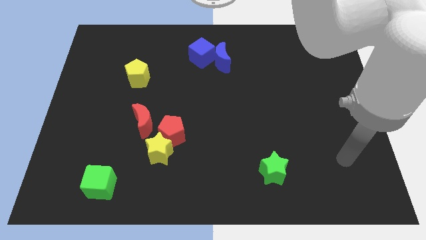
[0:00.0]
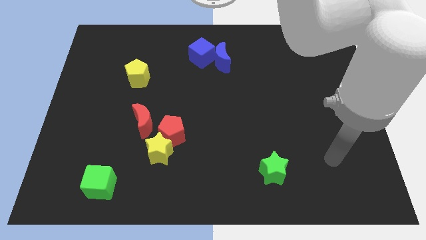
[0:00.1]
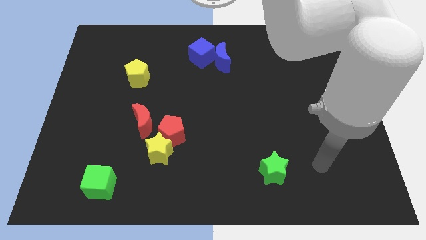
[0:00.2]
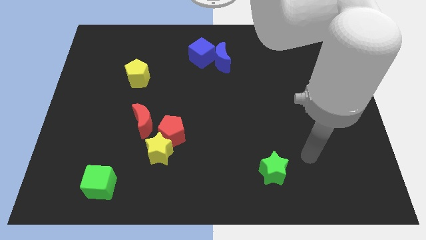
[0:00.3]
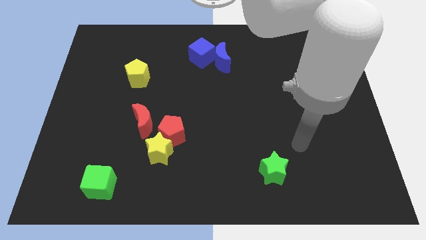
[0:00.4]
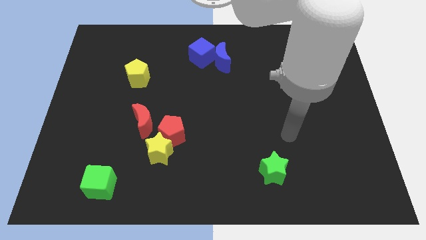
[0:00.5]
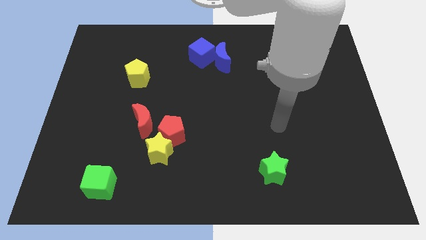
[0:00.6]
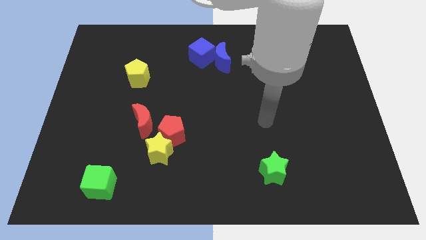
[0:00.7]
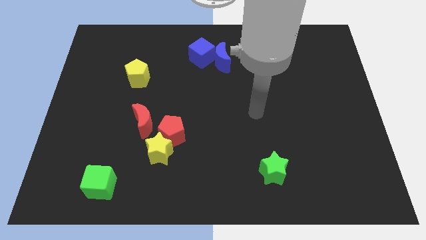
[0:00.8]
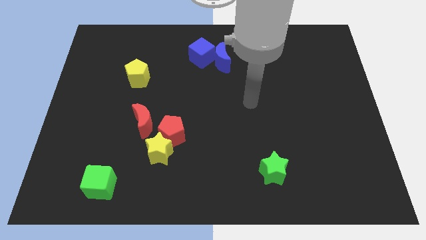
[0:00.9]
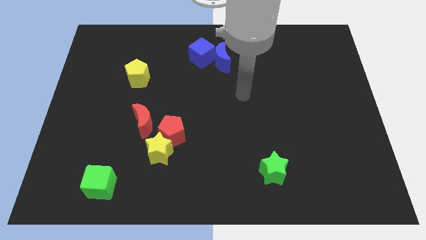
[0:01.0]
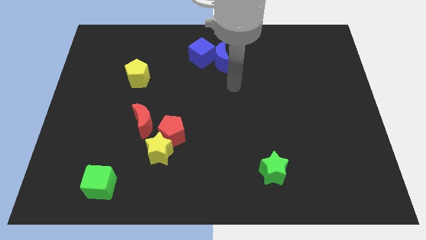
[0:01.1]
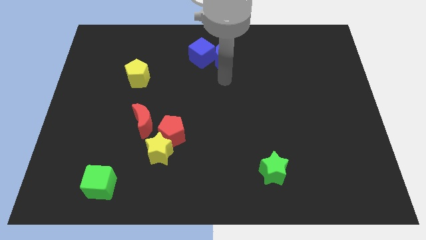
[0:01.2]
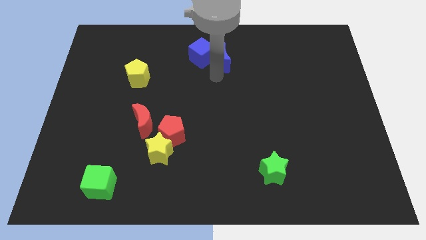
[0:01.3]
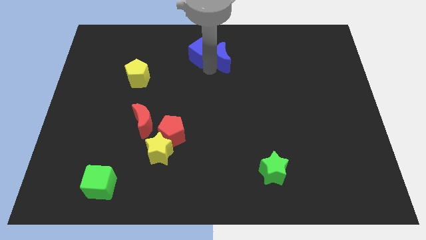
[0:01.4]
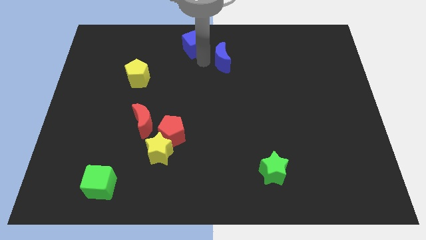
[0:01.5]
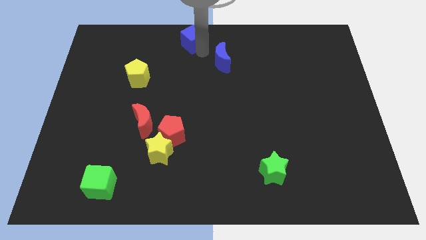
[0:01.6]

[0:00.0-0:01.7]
move the blue moon away from the blue cube

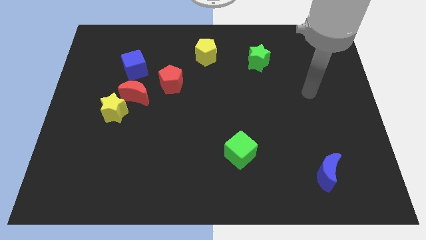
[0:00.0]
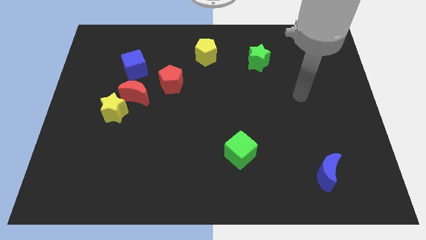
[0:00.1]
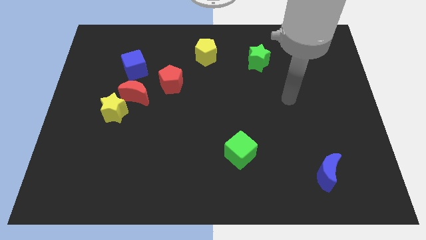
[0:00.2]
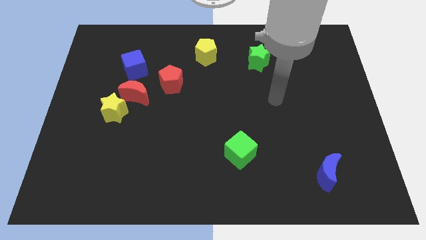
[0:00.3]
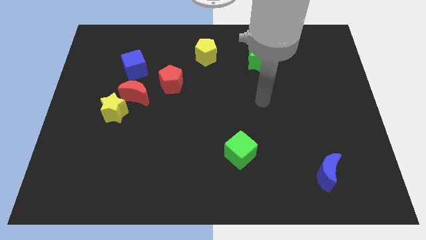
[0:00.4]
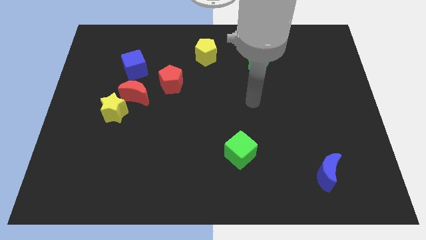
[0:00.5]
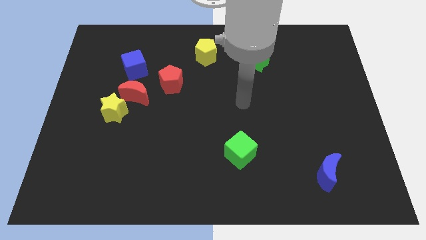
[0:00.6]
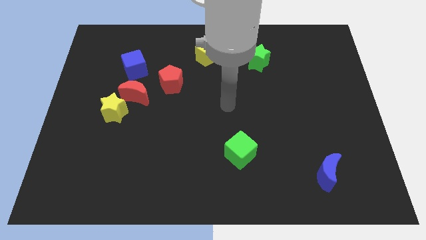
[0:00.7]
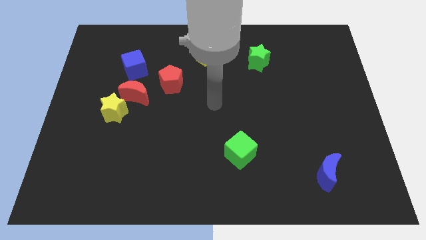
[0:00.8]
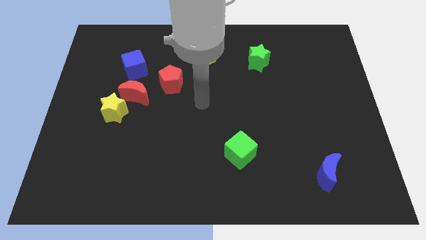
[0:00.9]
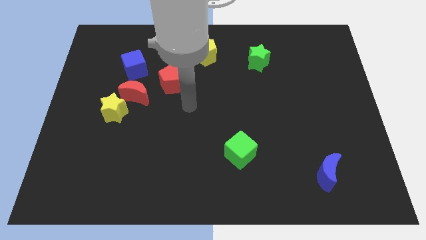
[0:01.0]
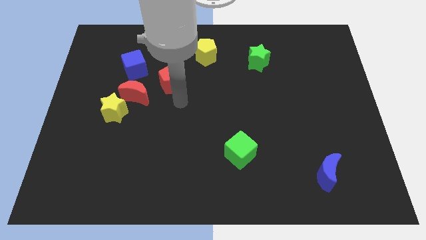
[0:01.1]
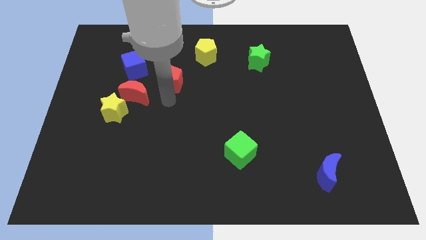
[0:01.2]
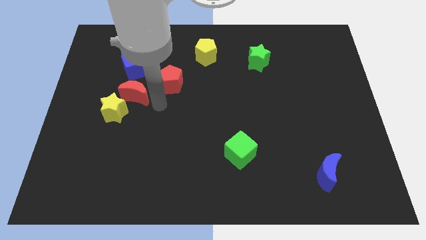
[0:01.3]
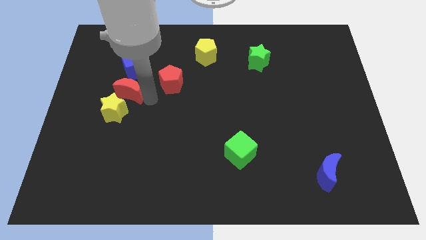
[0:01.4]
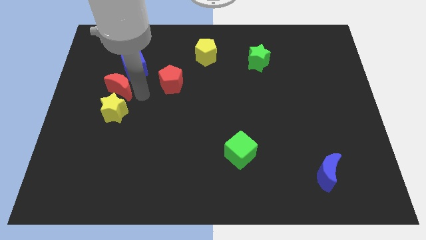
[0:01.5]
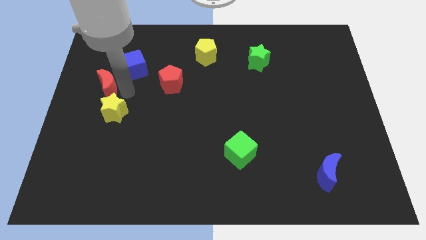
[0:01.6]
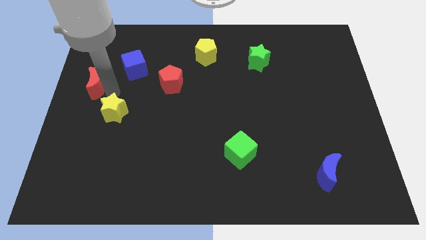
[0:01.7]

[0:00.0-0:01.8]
separate the yellow star from the red moon

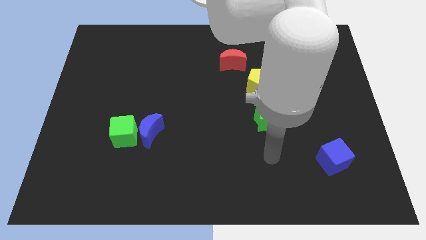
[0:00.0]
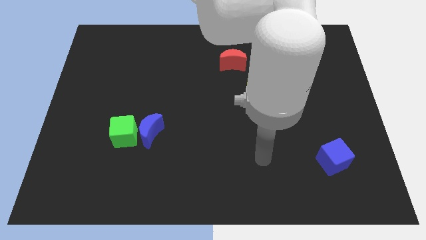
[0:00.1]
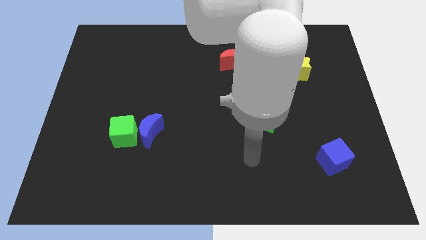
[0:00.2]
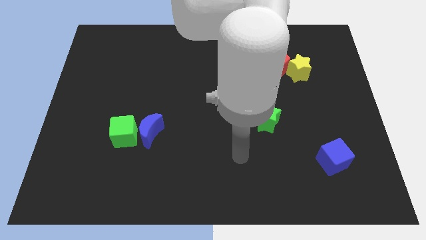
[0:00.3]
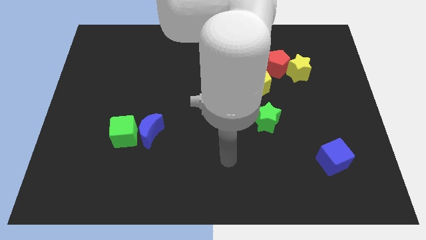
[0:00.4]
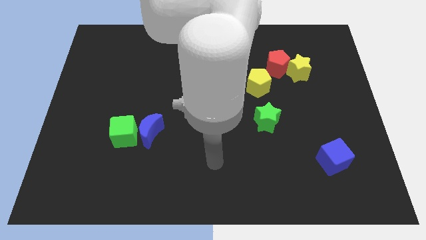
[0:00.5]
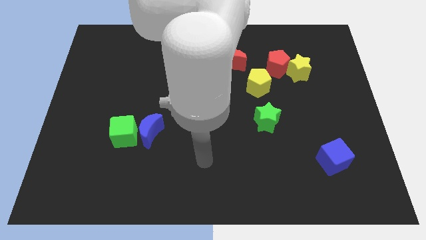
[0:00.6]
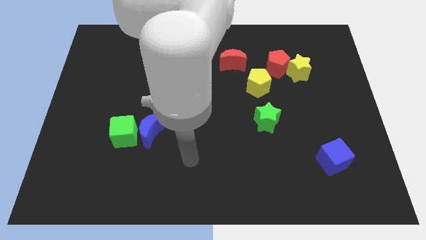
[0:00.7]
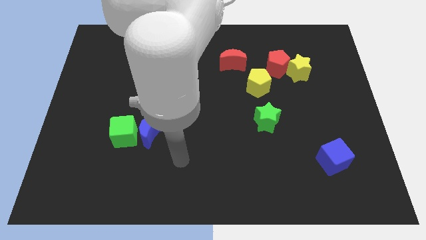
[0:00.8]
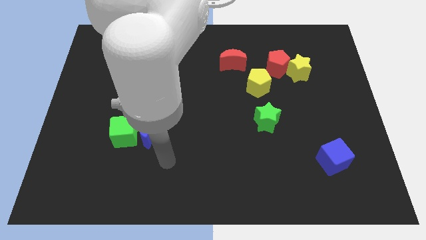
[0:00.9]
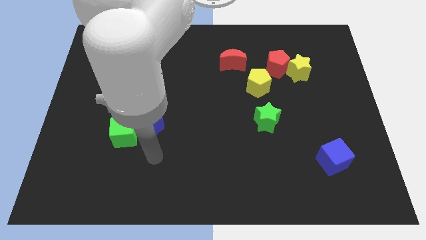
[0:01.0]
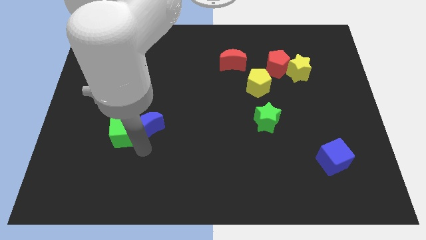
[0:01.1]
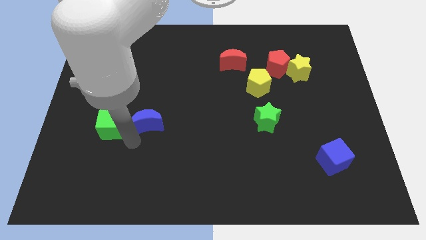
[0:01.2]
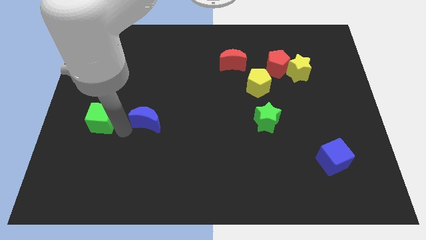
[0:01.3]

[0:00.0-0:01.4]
separate the blue moon from the green cube

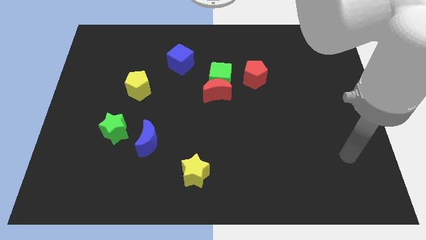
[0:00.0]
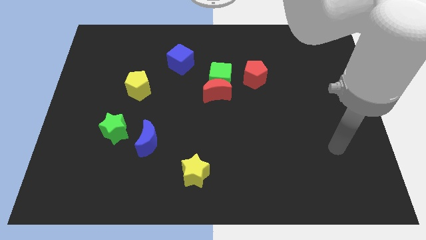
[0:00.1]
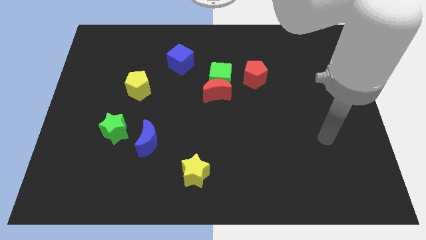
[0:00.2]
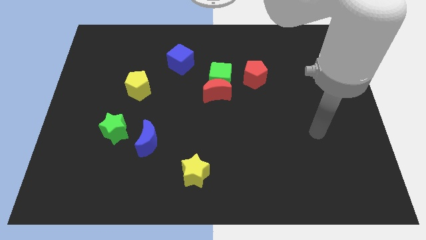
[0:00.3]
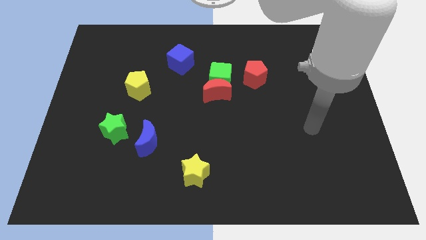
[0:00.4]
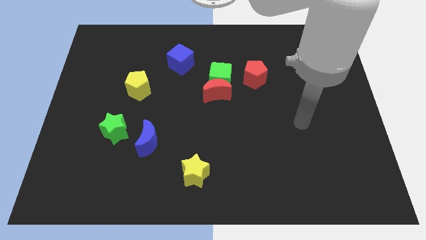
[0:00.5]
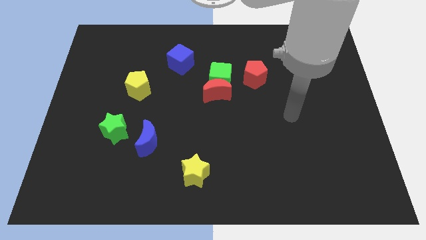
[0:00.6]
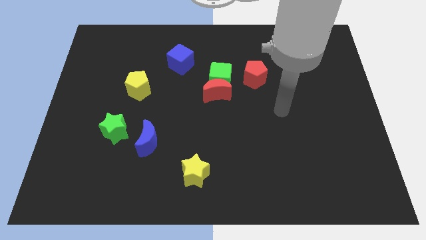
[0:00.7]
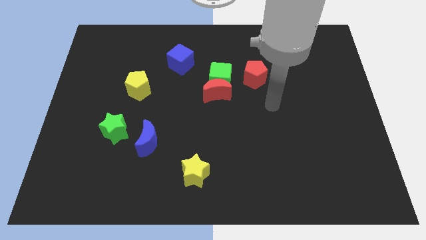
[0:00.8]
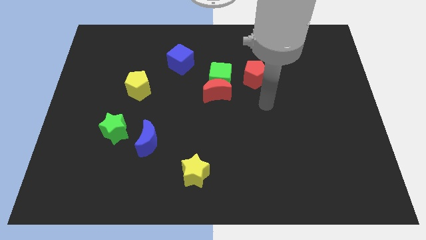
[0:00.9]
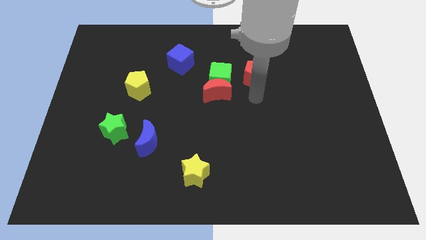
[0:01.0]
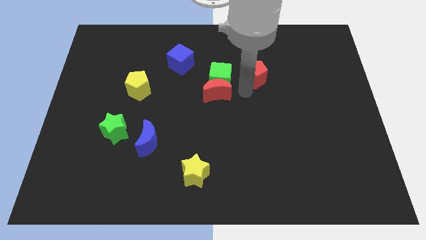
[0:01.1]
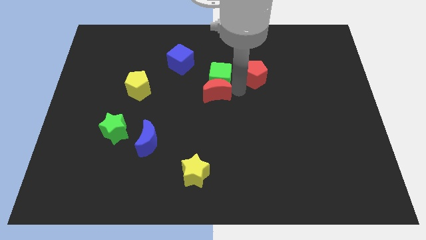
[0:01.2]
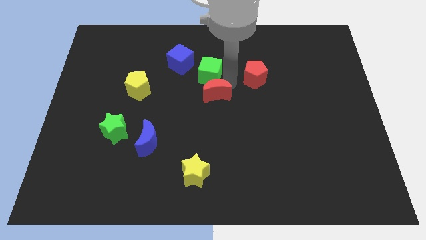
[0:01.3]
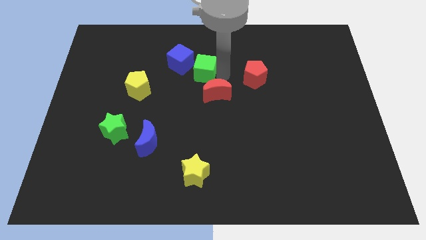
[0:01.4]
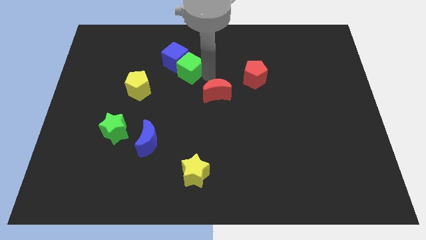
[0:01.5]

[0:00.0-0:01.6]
separate the red moon from the green cube

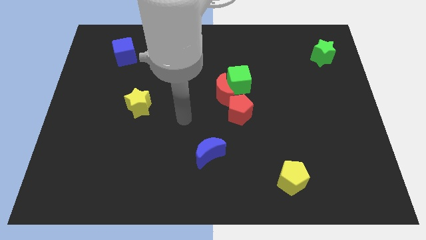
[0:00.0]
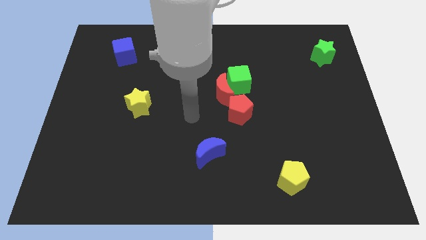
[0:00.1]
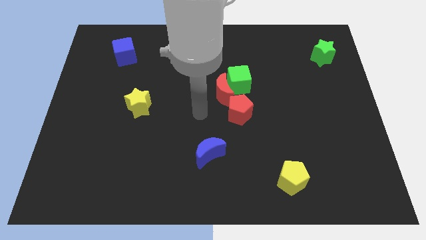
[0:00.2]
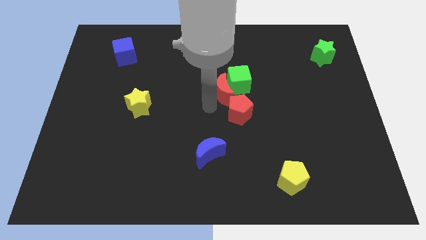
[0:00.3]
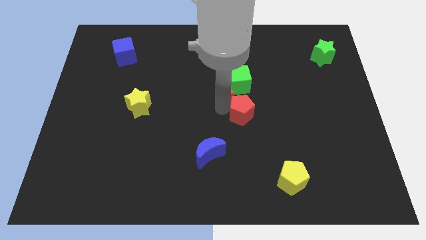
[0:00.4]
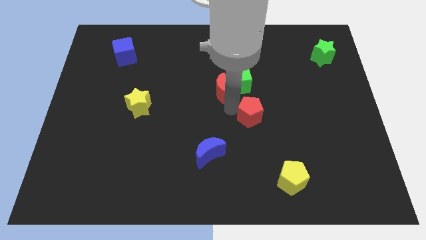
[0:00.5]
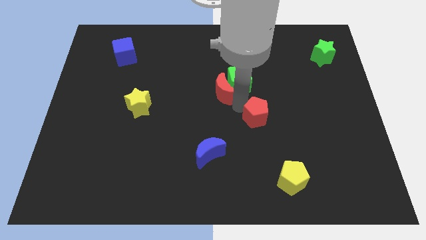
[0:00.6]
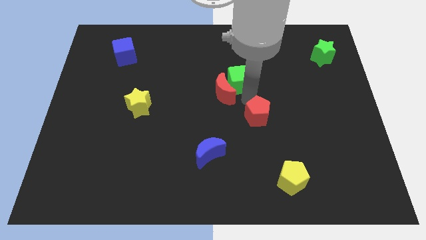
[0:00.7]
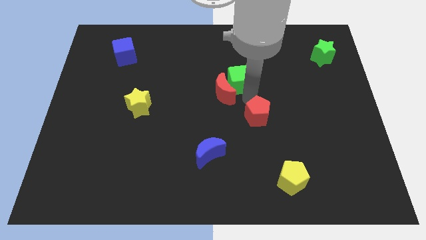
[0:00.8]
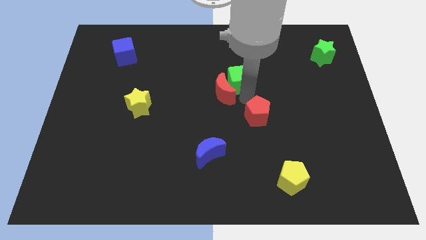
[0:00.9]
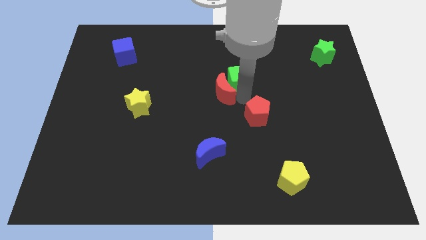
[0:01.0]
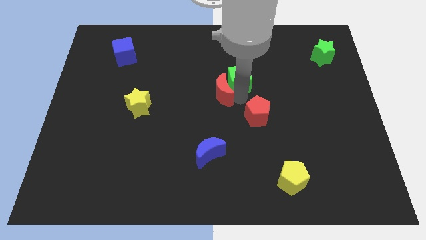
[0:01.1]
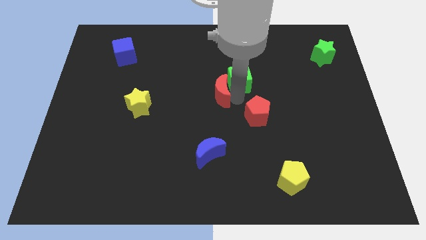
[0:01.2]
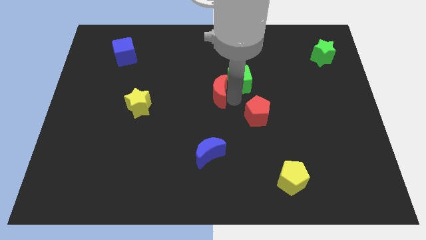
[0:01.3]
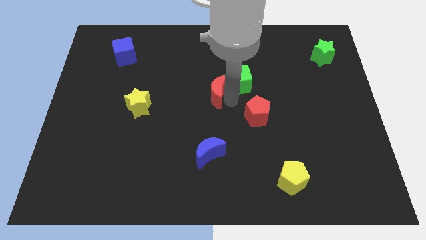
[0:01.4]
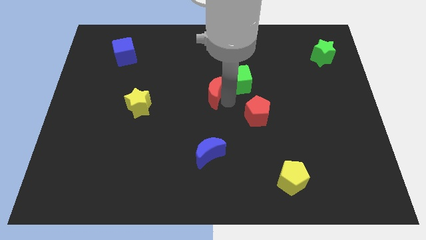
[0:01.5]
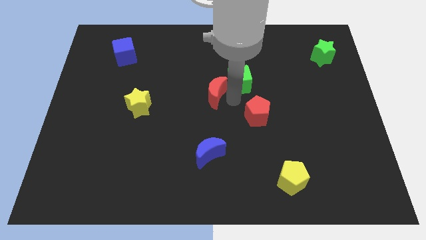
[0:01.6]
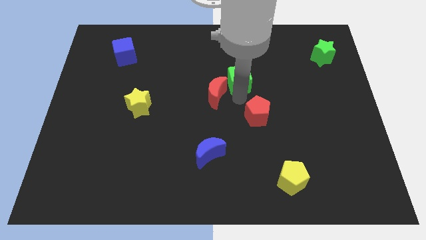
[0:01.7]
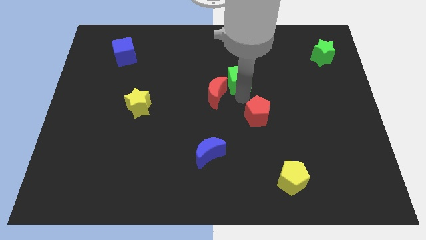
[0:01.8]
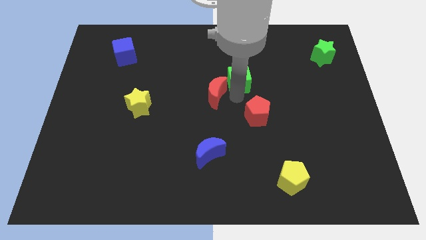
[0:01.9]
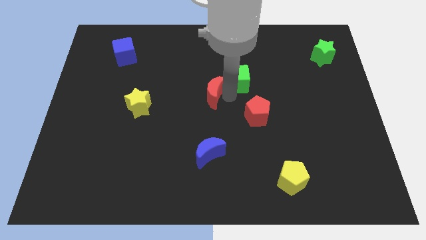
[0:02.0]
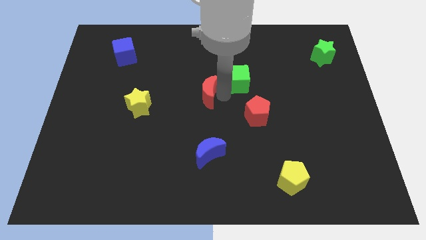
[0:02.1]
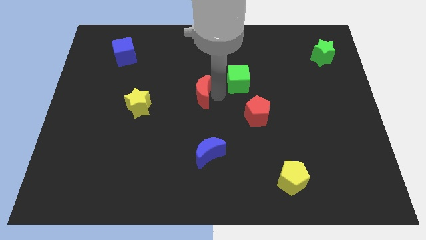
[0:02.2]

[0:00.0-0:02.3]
move the red moon away from the green cube and red pentagon

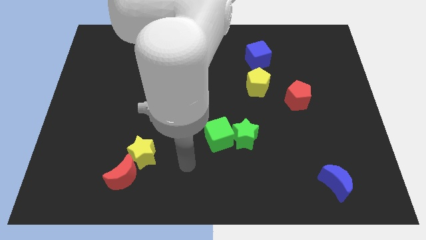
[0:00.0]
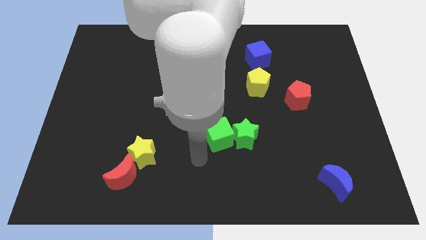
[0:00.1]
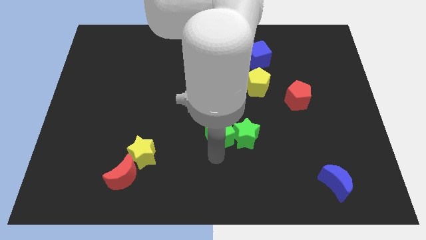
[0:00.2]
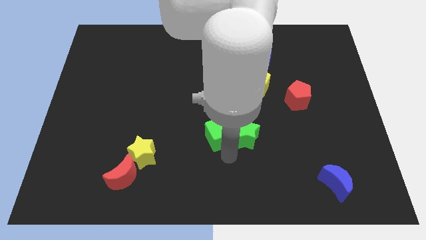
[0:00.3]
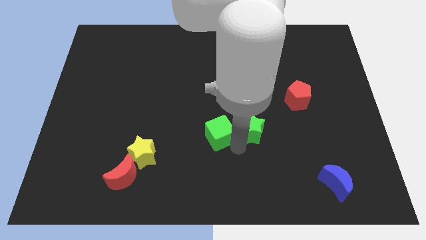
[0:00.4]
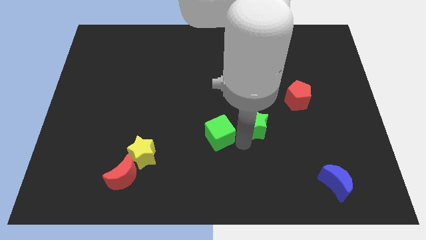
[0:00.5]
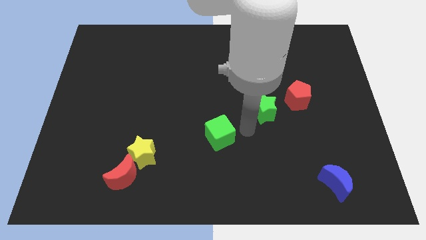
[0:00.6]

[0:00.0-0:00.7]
move the green cube away from the green star
